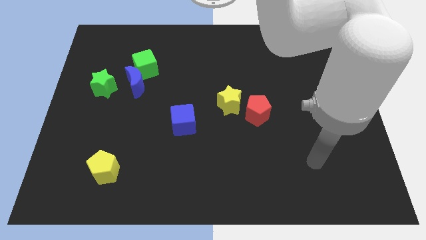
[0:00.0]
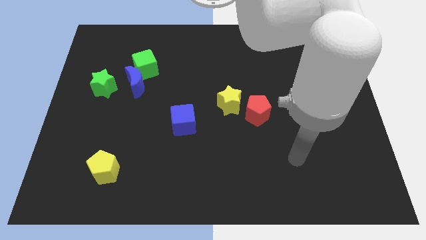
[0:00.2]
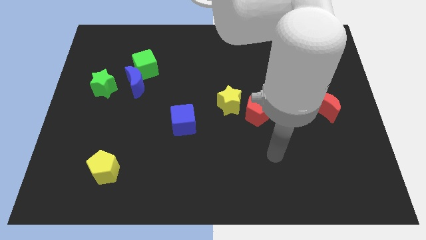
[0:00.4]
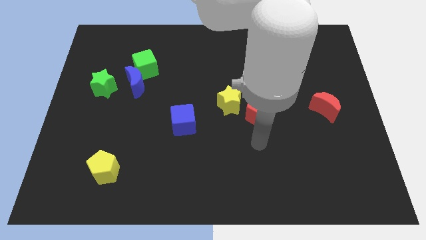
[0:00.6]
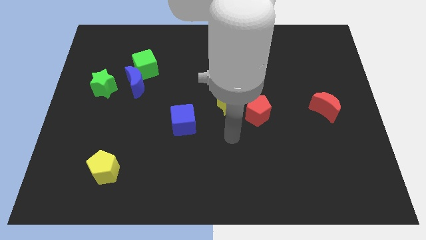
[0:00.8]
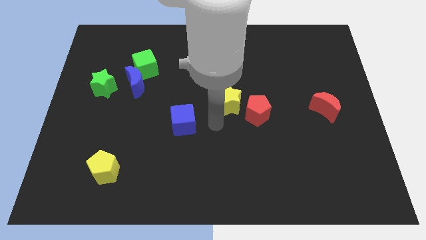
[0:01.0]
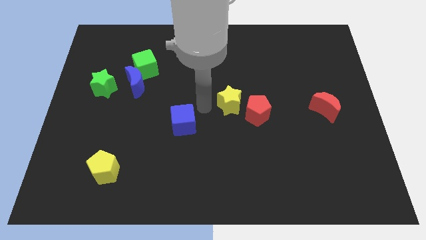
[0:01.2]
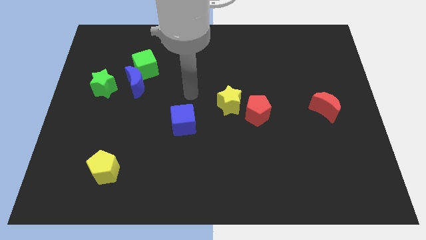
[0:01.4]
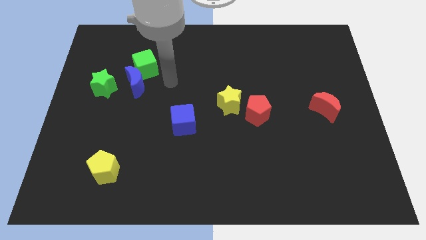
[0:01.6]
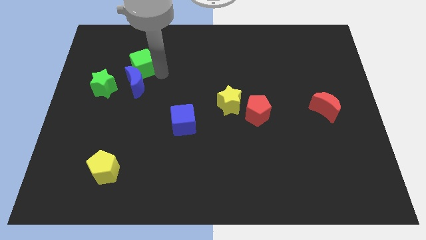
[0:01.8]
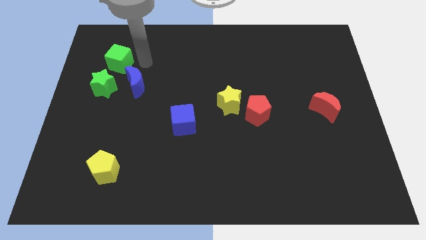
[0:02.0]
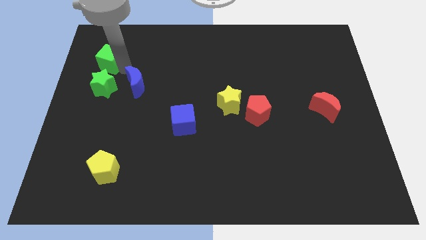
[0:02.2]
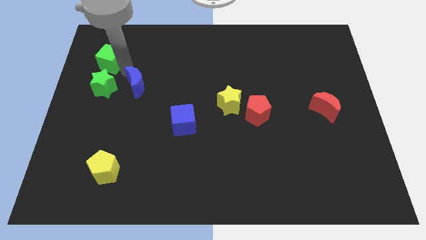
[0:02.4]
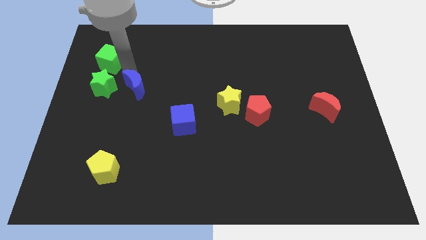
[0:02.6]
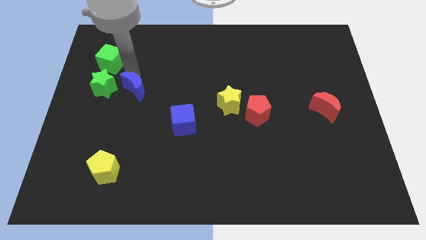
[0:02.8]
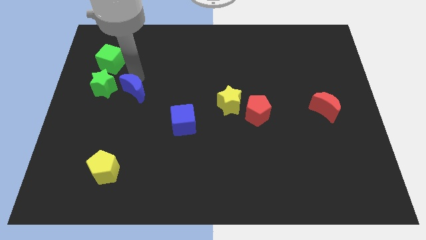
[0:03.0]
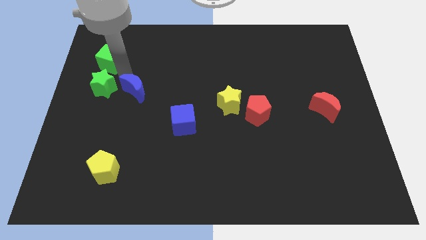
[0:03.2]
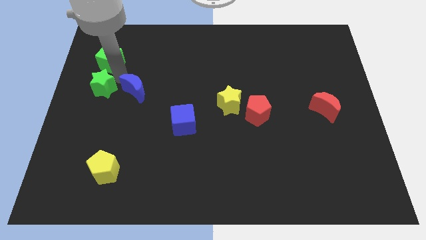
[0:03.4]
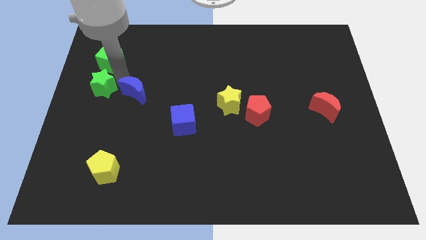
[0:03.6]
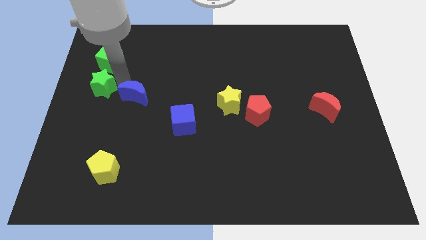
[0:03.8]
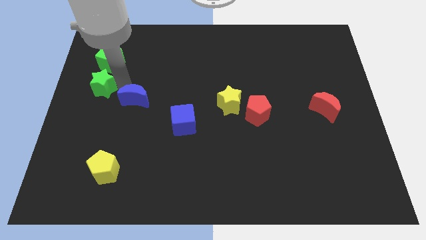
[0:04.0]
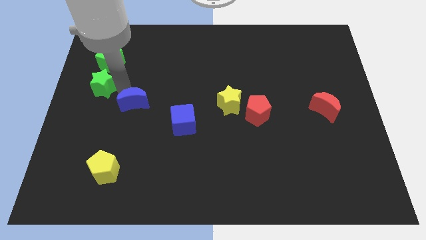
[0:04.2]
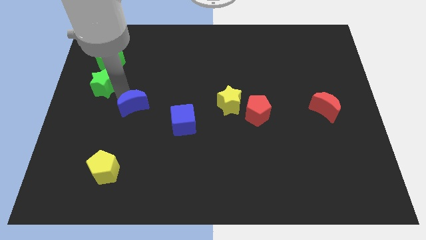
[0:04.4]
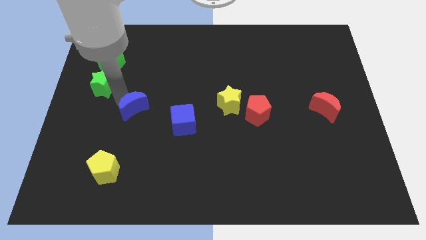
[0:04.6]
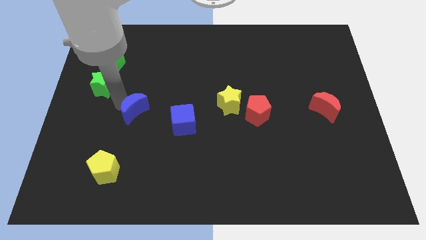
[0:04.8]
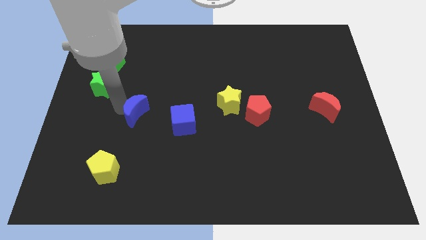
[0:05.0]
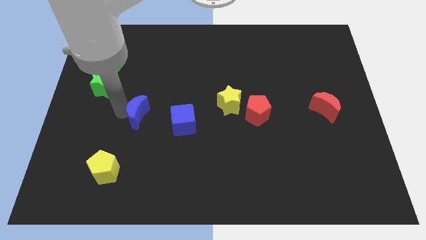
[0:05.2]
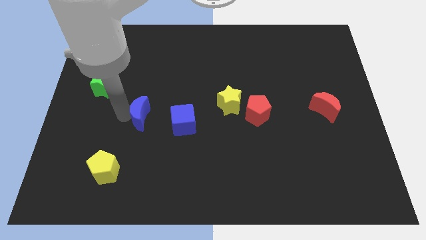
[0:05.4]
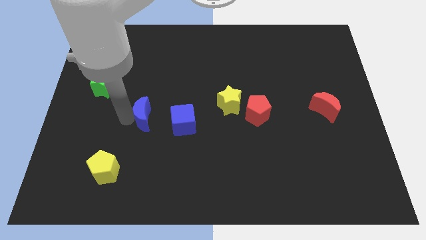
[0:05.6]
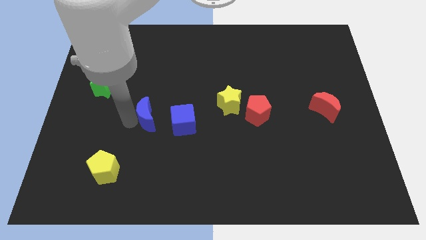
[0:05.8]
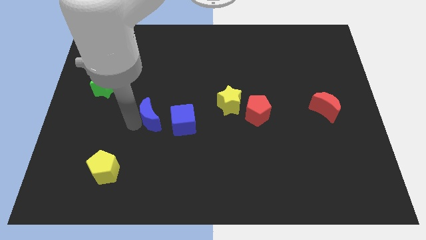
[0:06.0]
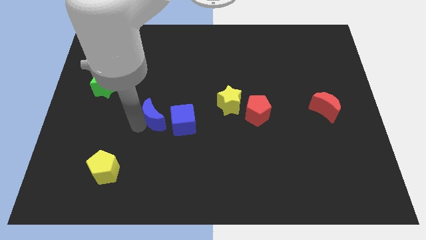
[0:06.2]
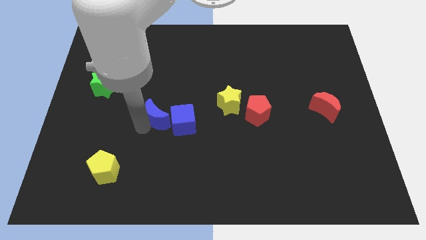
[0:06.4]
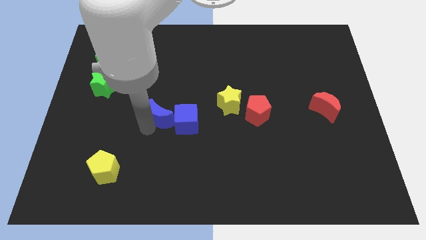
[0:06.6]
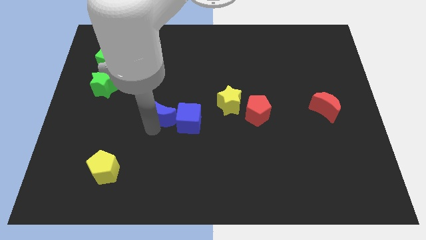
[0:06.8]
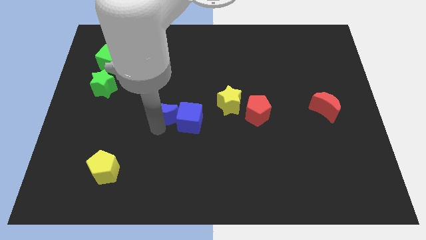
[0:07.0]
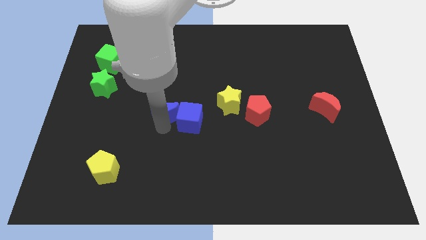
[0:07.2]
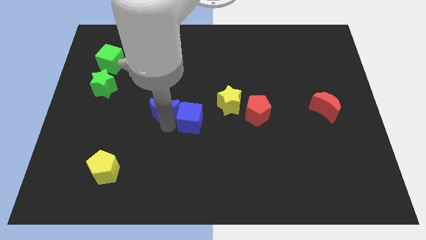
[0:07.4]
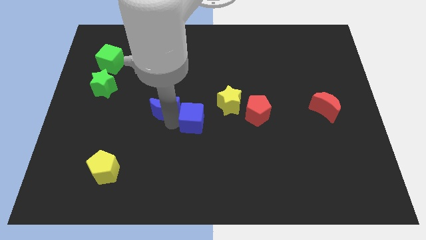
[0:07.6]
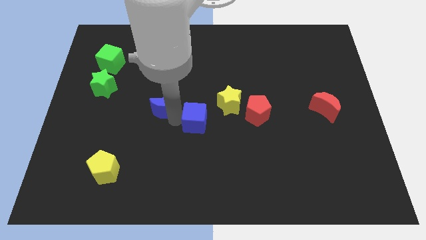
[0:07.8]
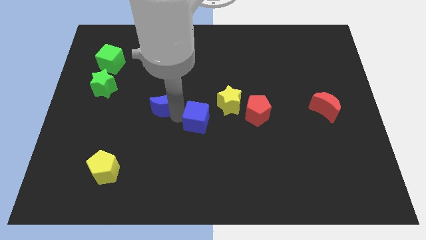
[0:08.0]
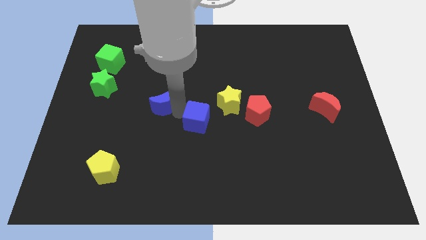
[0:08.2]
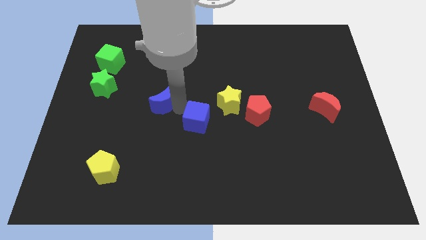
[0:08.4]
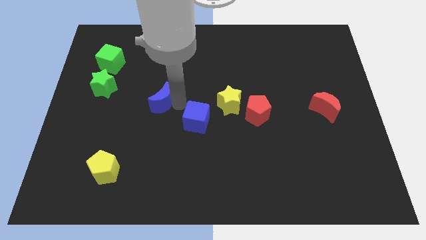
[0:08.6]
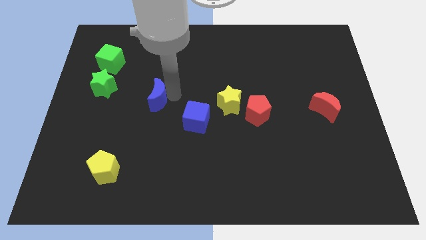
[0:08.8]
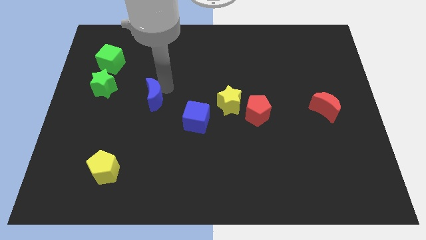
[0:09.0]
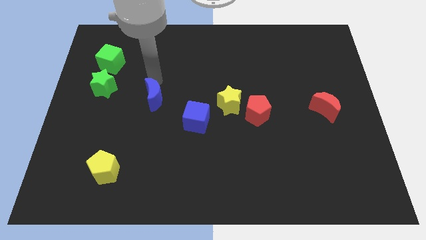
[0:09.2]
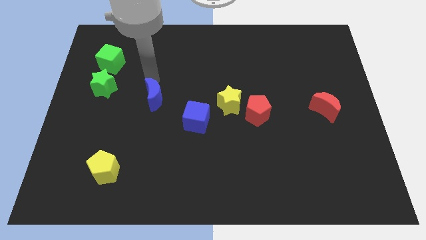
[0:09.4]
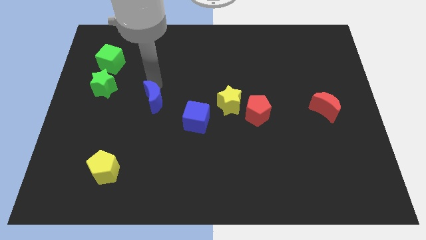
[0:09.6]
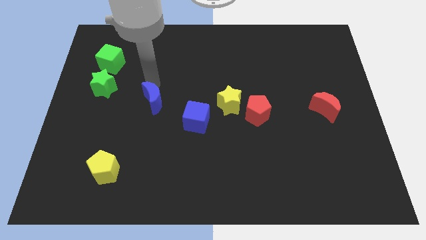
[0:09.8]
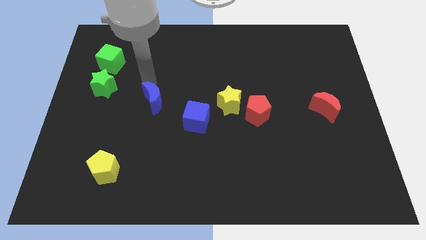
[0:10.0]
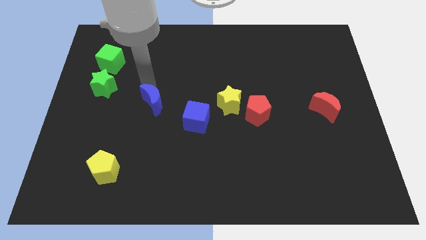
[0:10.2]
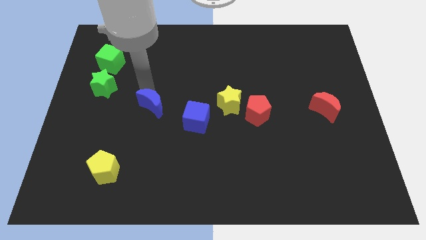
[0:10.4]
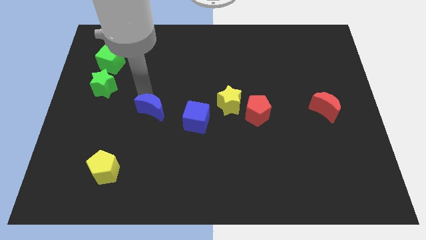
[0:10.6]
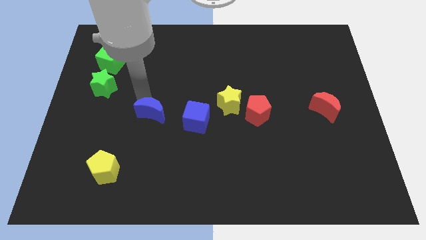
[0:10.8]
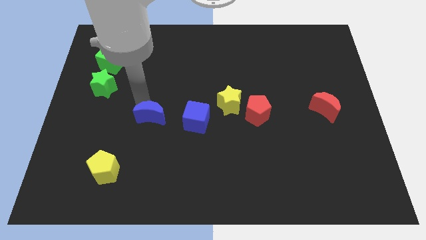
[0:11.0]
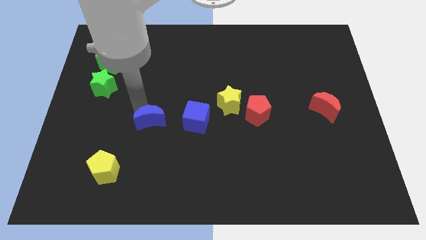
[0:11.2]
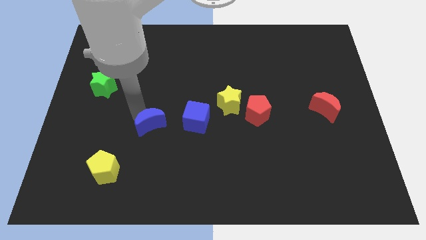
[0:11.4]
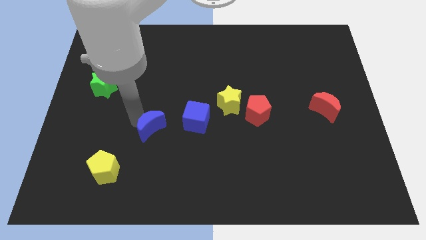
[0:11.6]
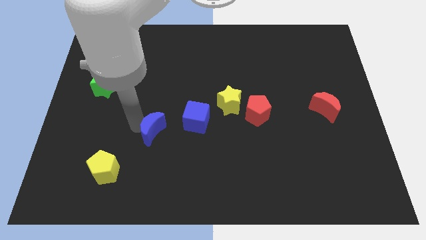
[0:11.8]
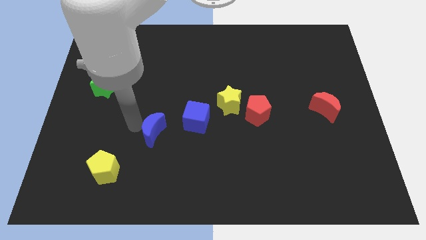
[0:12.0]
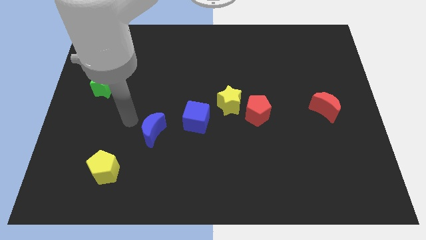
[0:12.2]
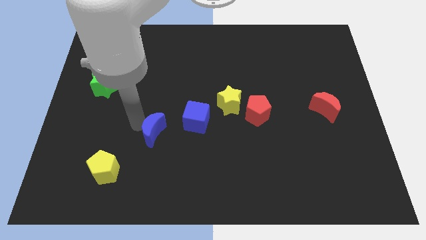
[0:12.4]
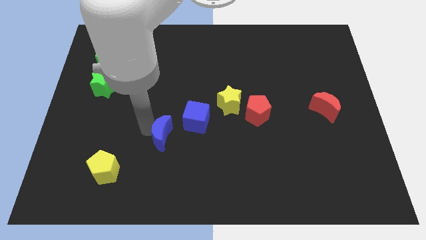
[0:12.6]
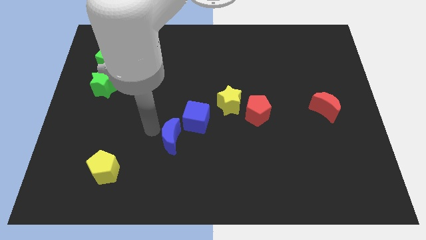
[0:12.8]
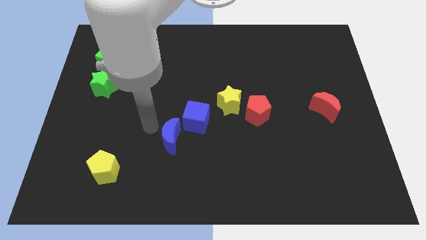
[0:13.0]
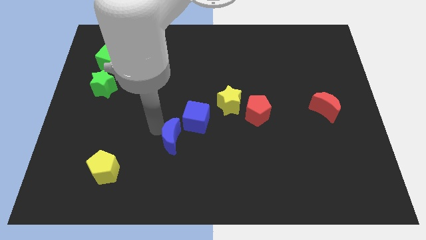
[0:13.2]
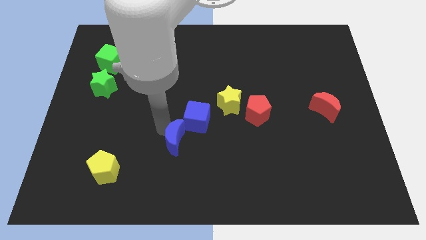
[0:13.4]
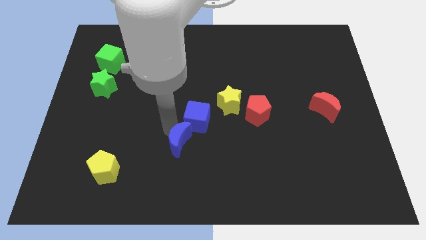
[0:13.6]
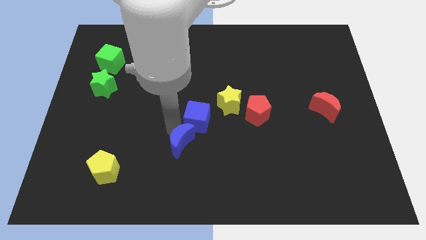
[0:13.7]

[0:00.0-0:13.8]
push the blue moon diagonally down and to the right

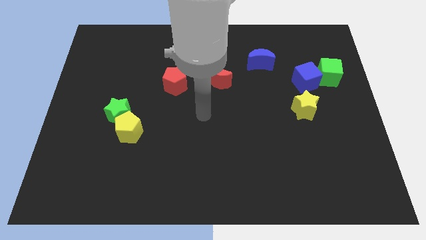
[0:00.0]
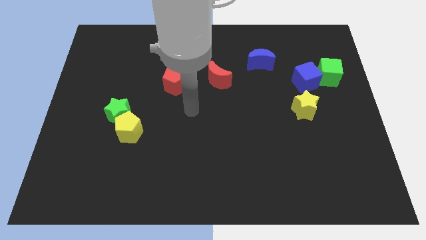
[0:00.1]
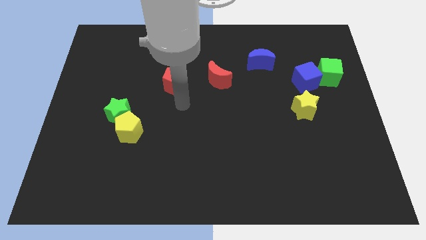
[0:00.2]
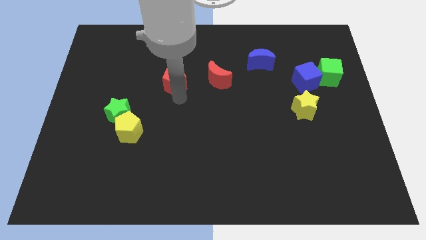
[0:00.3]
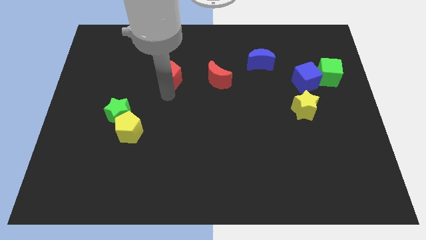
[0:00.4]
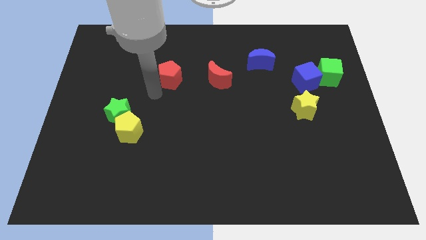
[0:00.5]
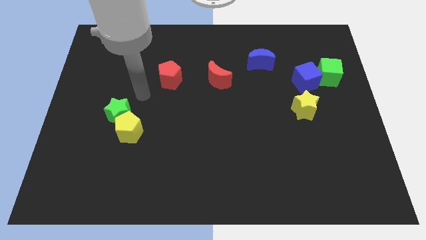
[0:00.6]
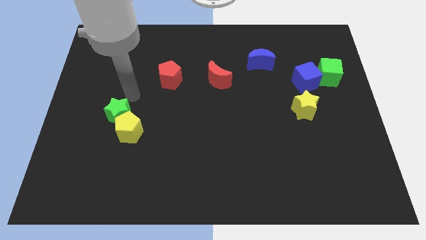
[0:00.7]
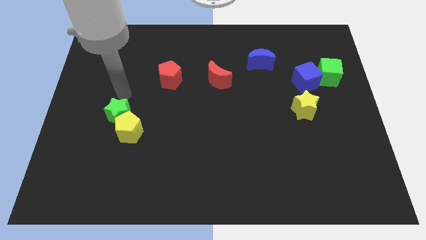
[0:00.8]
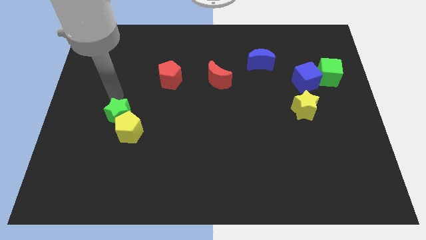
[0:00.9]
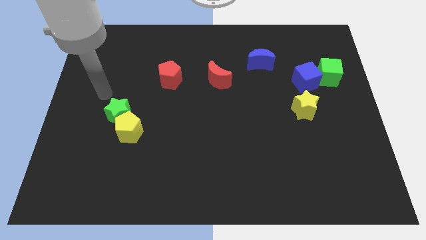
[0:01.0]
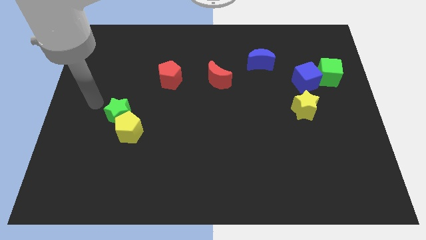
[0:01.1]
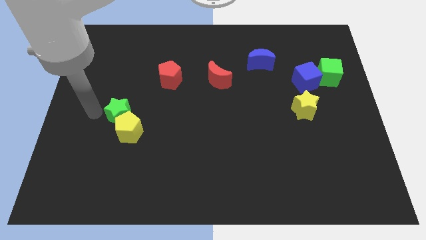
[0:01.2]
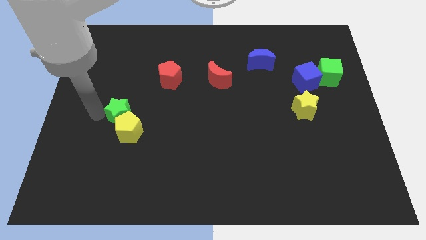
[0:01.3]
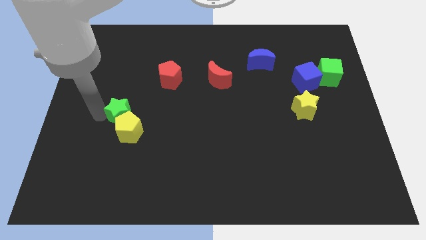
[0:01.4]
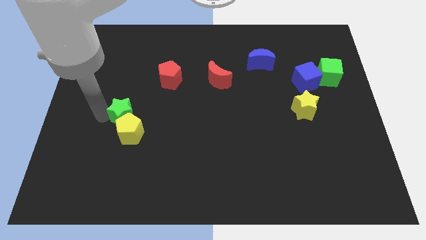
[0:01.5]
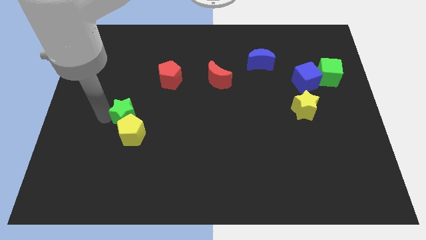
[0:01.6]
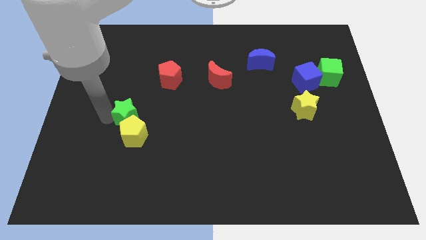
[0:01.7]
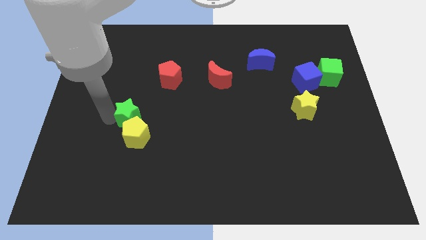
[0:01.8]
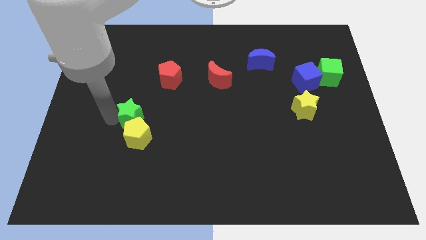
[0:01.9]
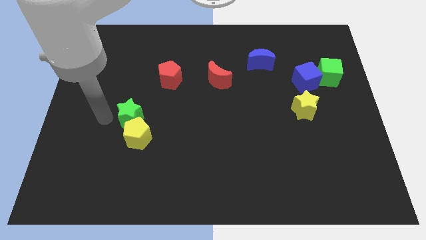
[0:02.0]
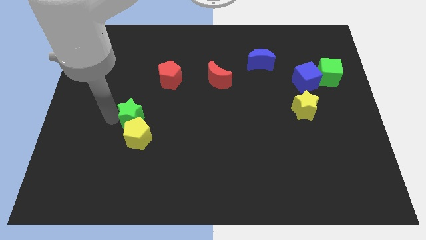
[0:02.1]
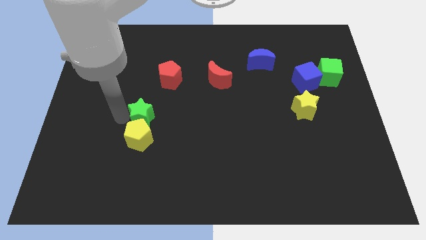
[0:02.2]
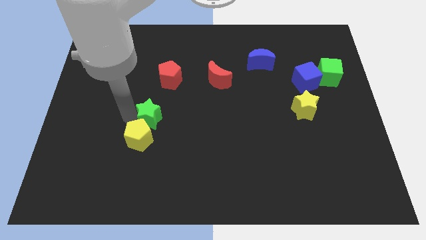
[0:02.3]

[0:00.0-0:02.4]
slide the green star somewhat right
